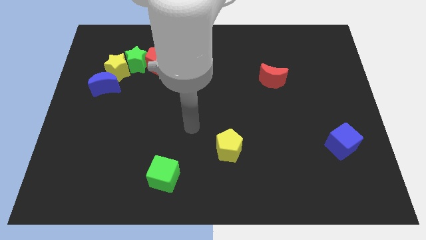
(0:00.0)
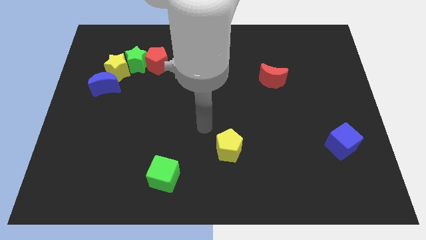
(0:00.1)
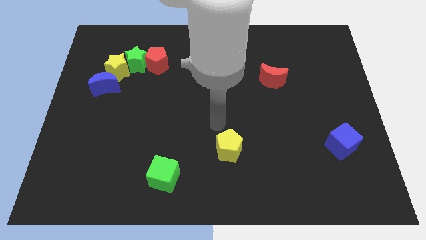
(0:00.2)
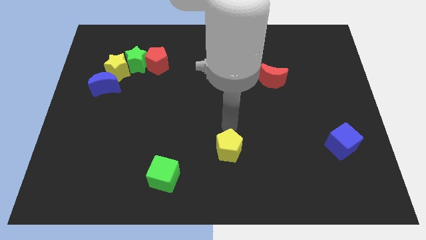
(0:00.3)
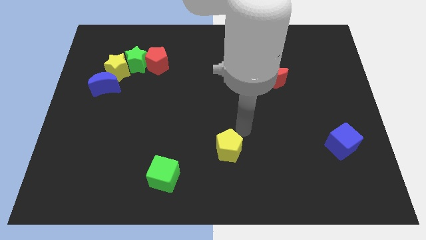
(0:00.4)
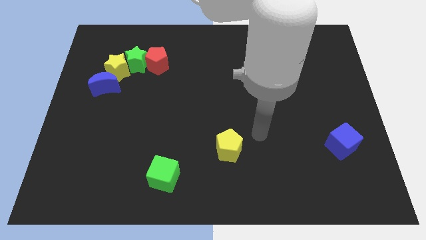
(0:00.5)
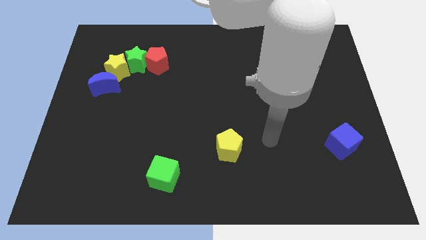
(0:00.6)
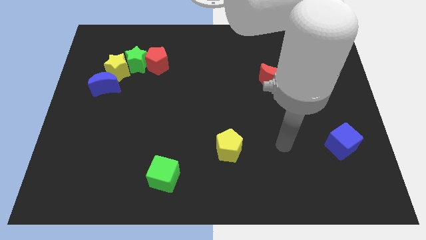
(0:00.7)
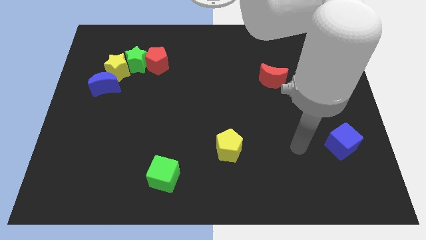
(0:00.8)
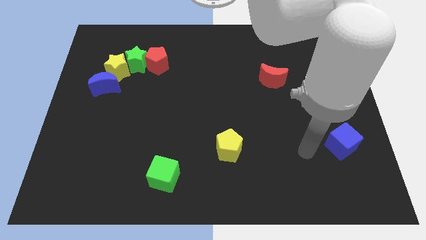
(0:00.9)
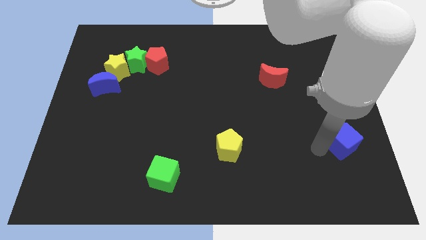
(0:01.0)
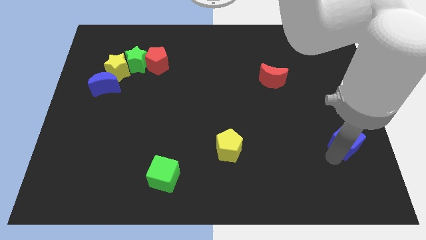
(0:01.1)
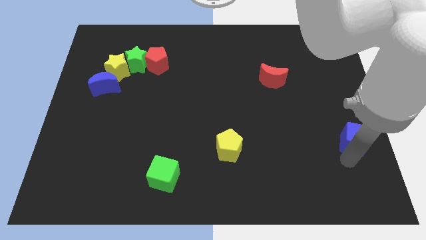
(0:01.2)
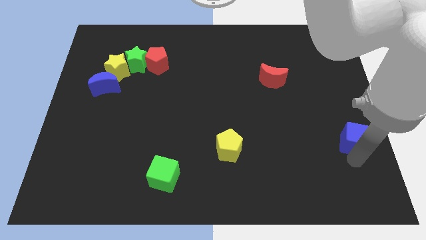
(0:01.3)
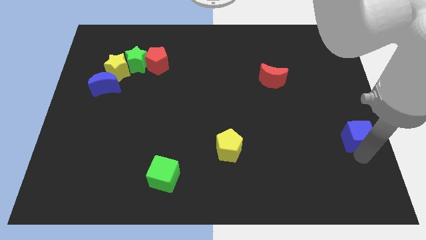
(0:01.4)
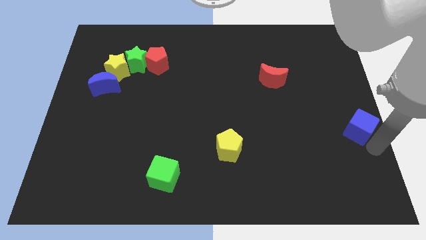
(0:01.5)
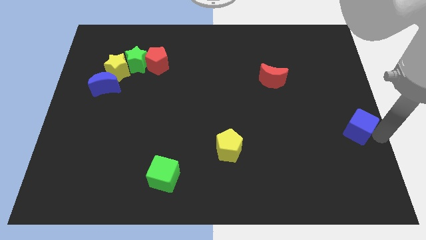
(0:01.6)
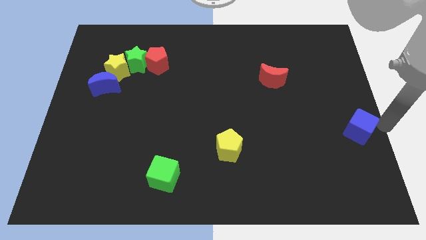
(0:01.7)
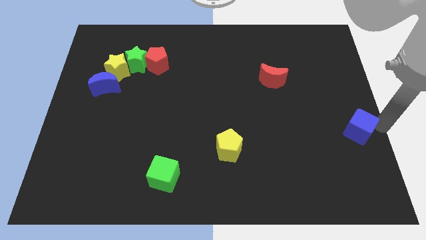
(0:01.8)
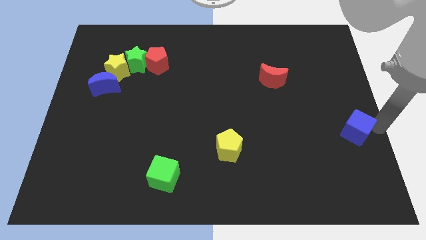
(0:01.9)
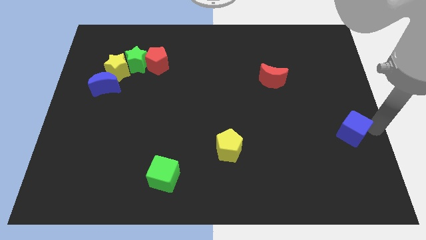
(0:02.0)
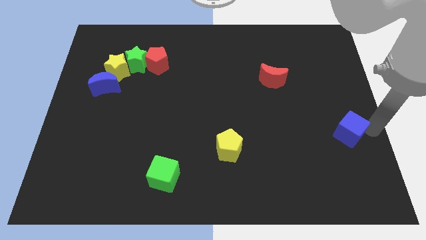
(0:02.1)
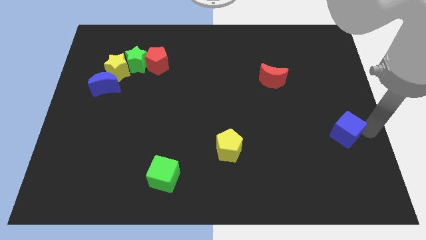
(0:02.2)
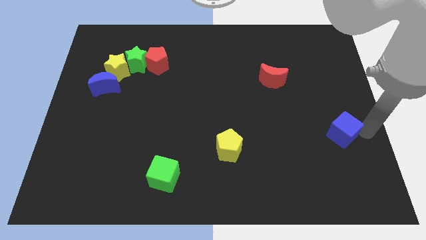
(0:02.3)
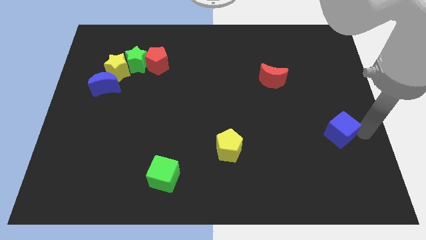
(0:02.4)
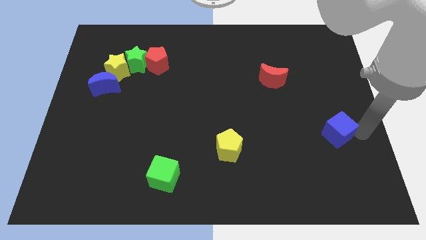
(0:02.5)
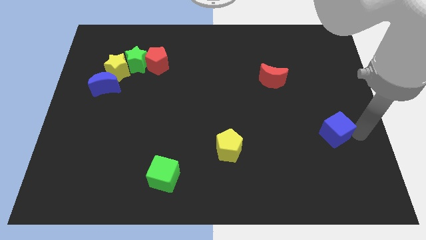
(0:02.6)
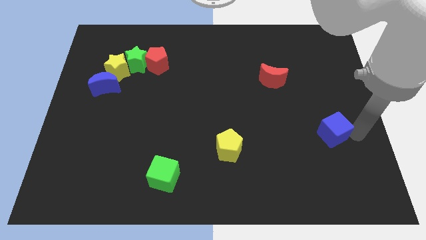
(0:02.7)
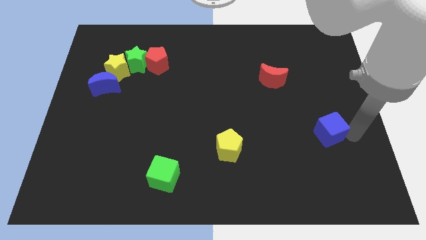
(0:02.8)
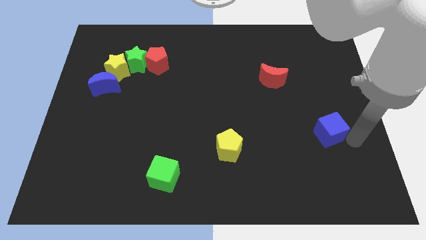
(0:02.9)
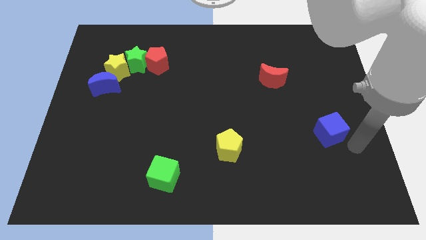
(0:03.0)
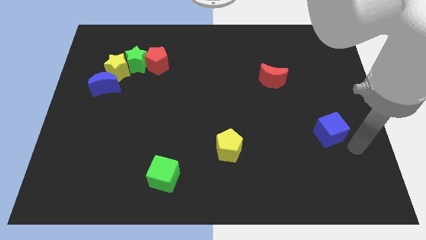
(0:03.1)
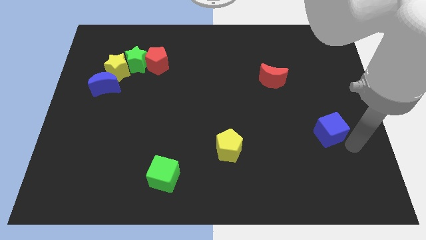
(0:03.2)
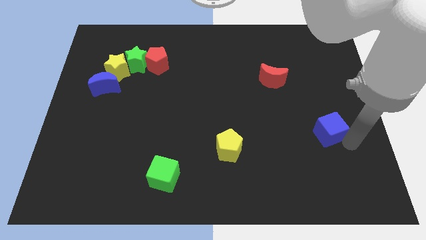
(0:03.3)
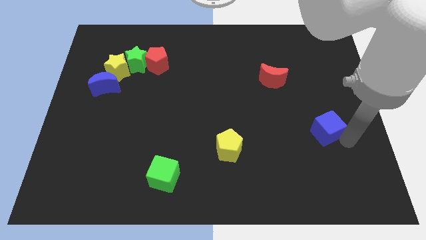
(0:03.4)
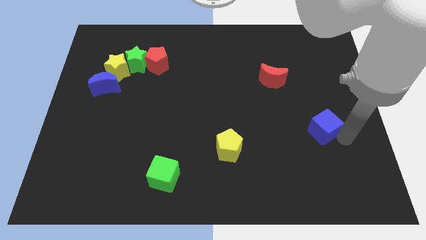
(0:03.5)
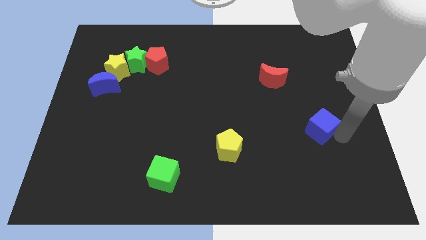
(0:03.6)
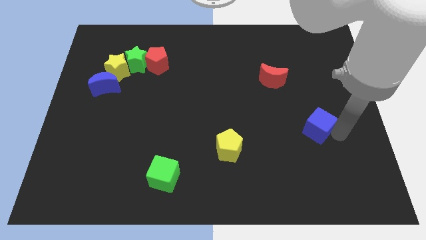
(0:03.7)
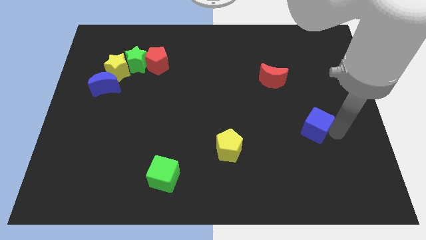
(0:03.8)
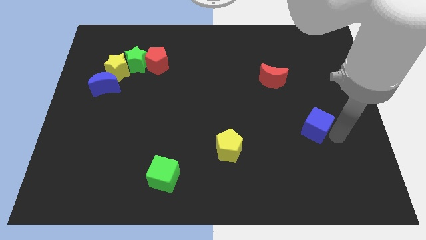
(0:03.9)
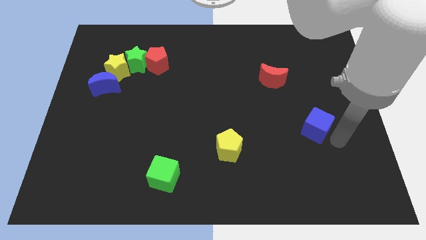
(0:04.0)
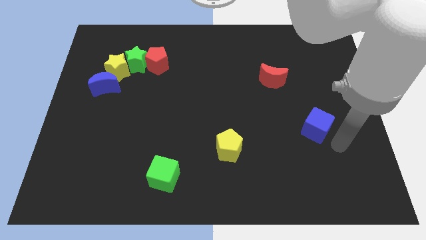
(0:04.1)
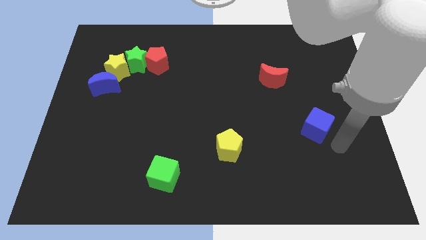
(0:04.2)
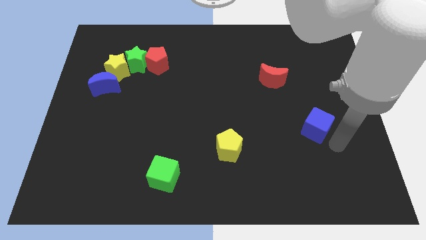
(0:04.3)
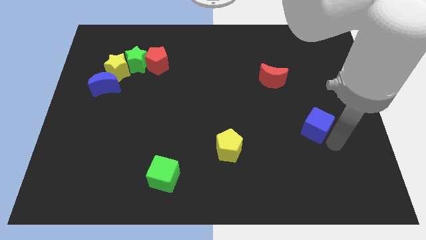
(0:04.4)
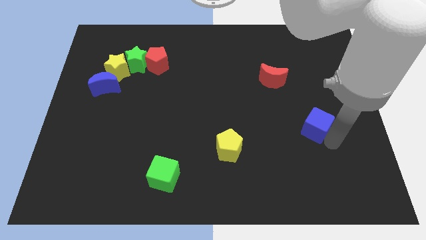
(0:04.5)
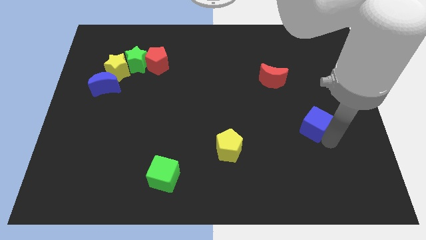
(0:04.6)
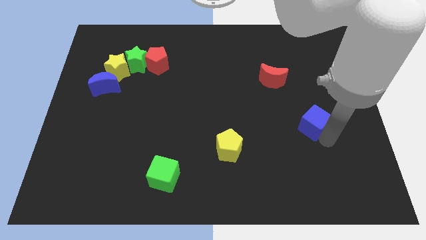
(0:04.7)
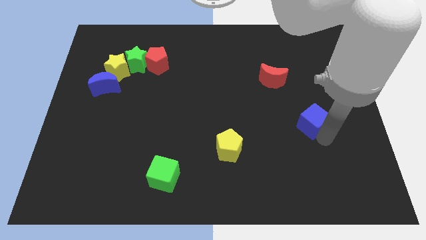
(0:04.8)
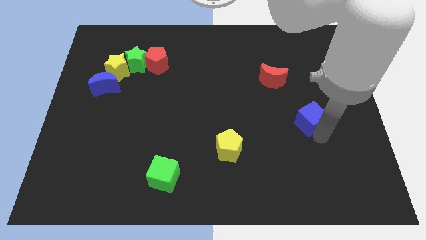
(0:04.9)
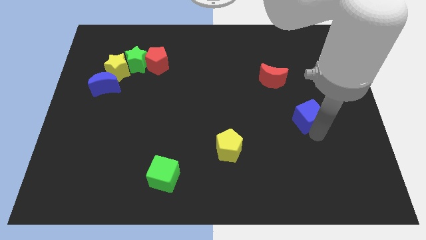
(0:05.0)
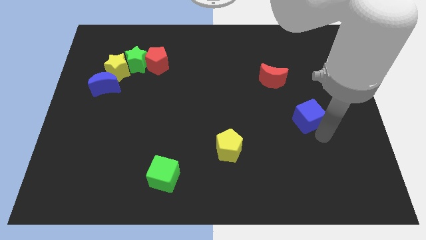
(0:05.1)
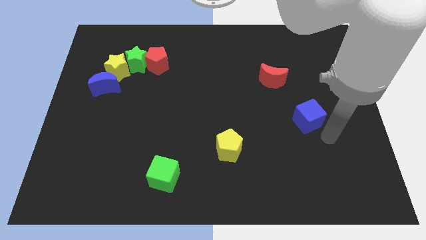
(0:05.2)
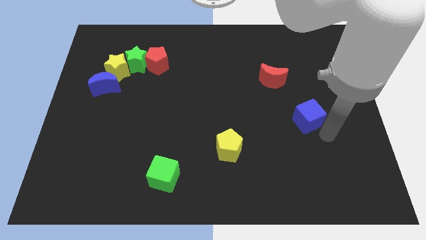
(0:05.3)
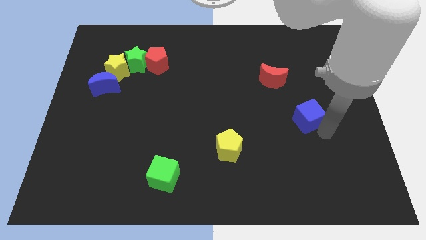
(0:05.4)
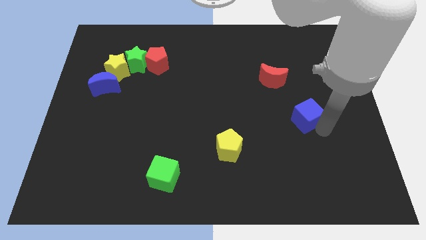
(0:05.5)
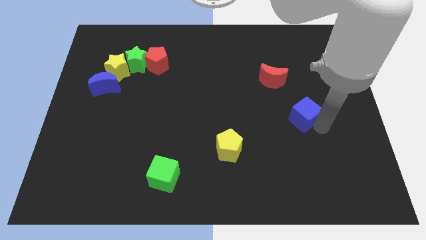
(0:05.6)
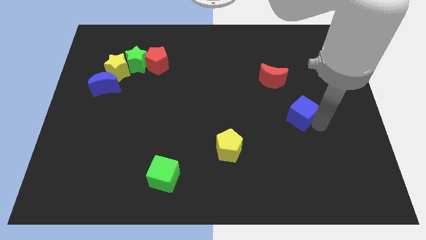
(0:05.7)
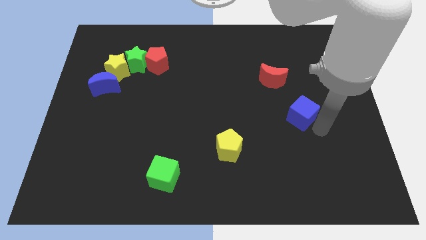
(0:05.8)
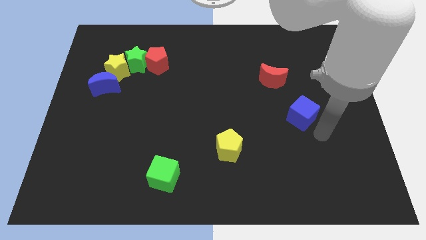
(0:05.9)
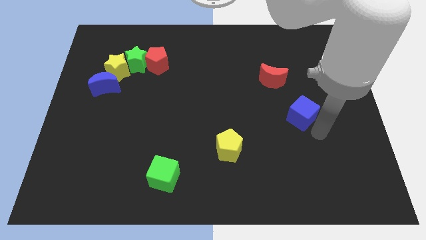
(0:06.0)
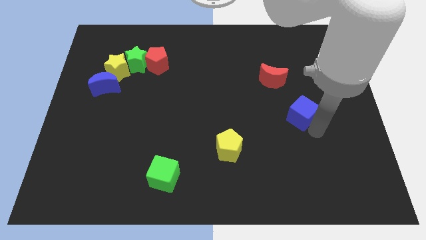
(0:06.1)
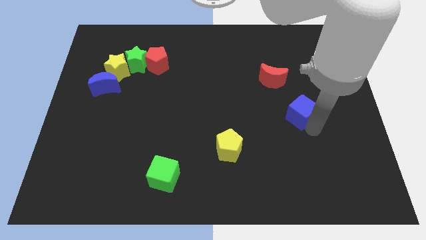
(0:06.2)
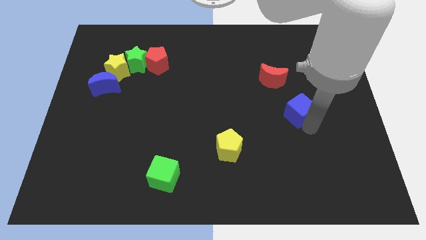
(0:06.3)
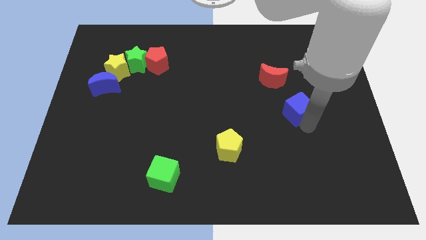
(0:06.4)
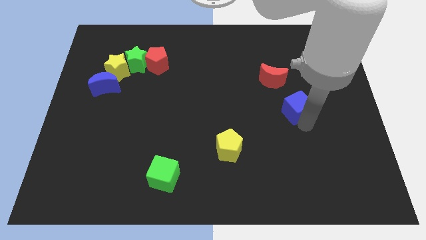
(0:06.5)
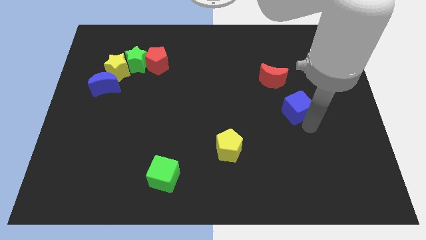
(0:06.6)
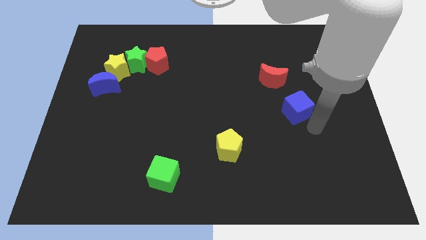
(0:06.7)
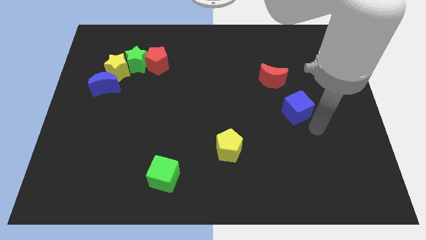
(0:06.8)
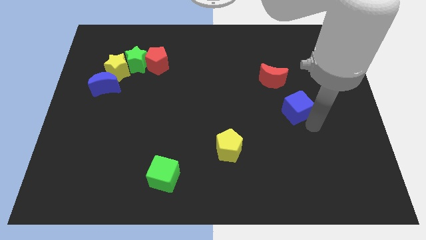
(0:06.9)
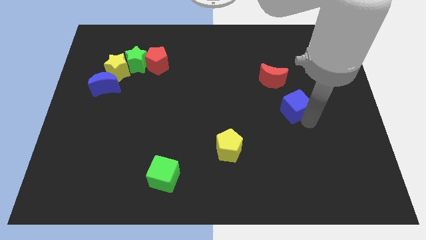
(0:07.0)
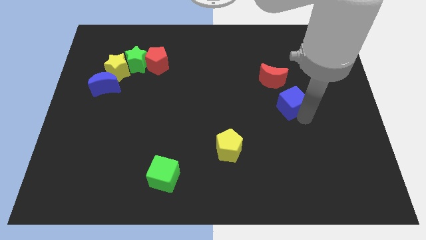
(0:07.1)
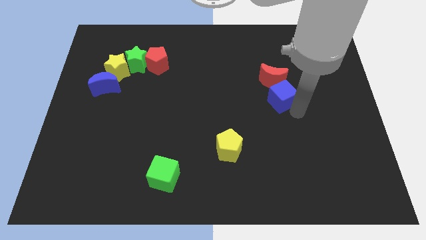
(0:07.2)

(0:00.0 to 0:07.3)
put the blue cube towards the red moon
